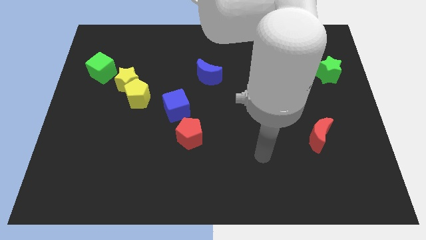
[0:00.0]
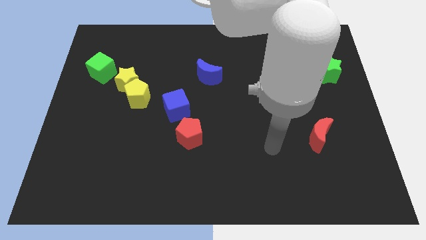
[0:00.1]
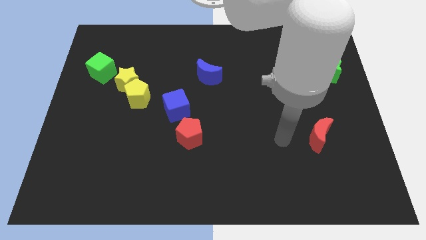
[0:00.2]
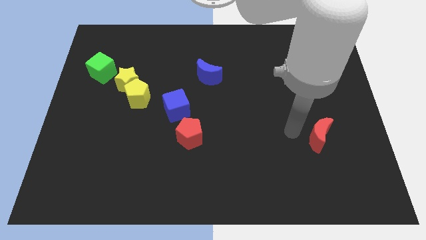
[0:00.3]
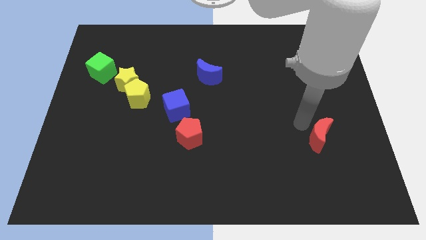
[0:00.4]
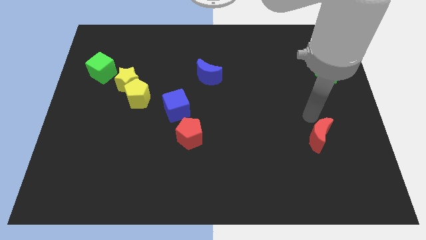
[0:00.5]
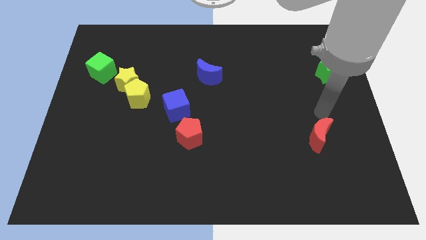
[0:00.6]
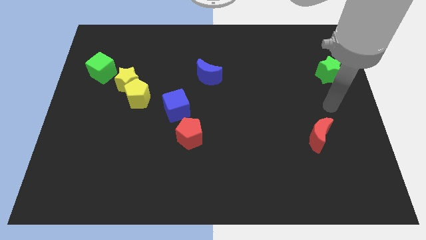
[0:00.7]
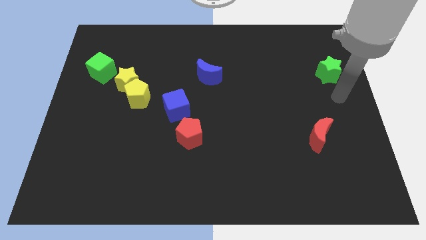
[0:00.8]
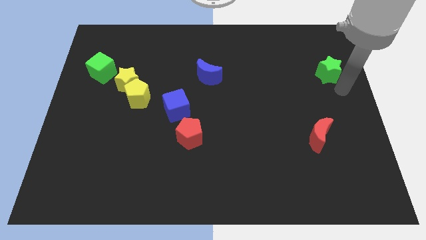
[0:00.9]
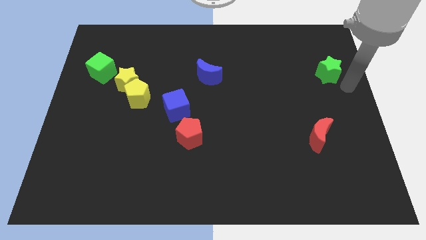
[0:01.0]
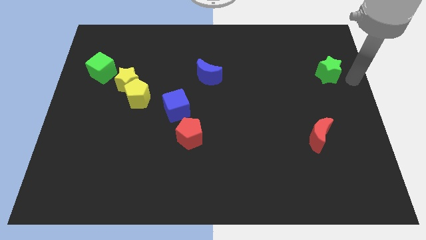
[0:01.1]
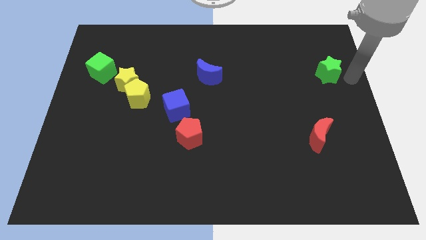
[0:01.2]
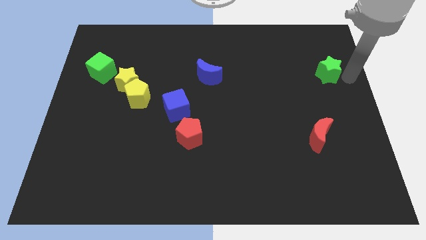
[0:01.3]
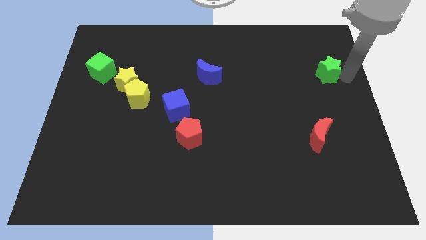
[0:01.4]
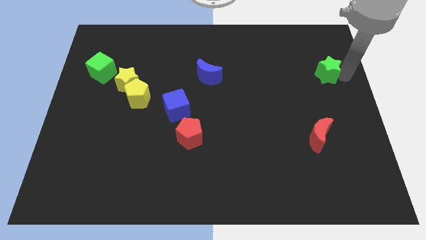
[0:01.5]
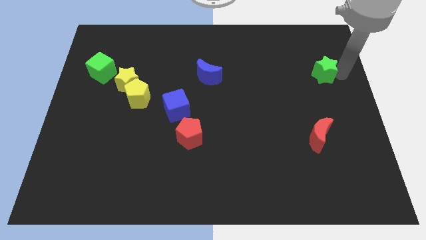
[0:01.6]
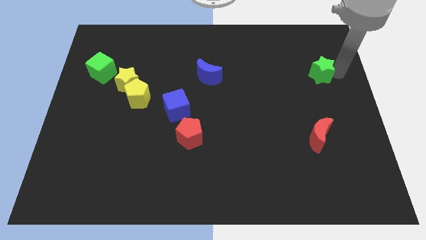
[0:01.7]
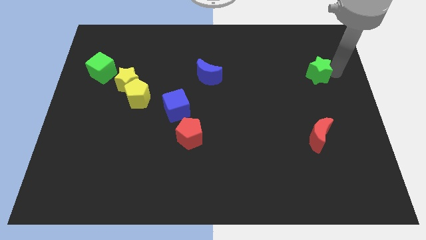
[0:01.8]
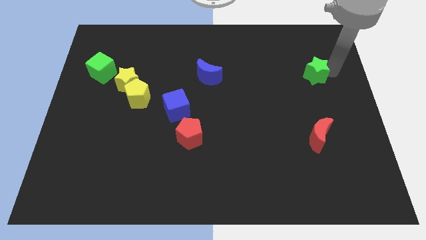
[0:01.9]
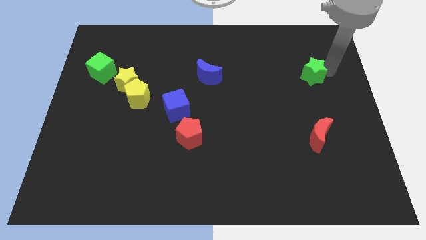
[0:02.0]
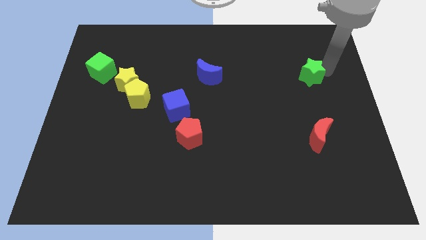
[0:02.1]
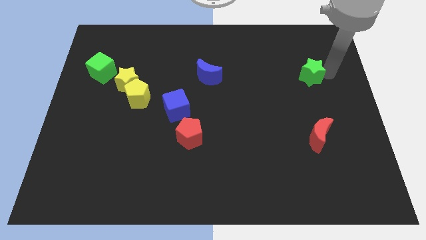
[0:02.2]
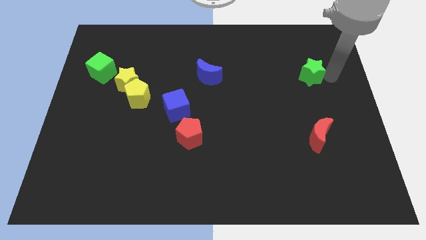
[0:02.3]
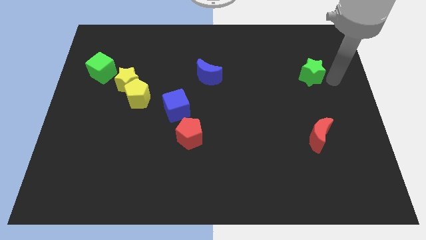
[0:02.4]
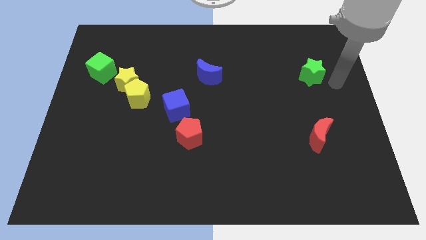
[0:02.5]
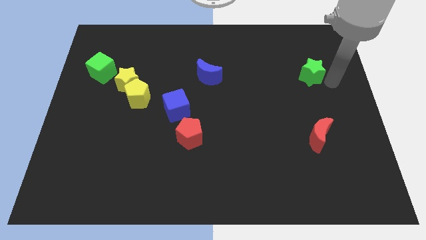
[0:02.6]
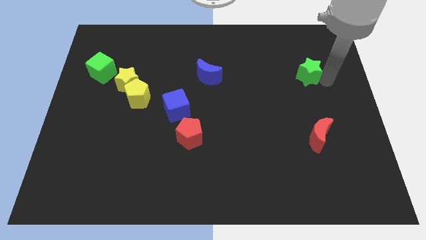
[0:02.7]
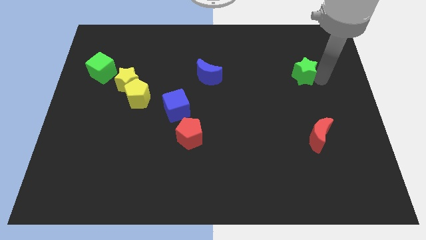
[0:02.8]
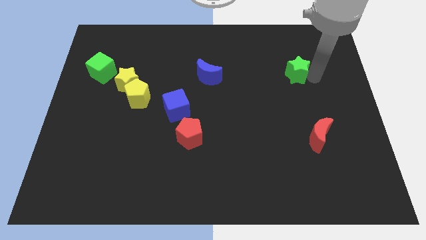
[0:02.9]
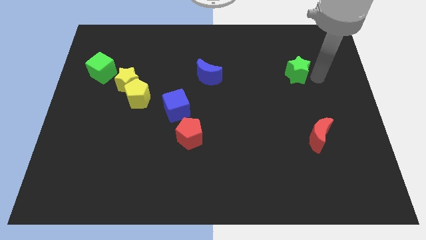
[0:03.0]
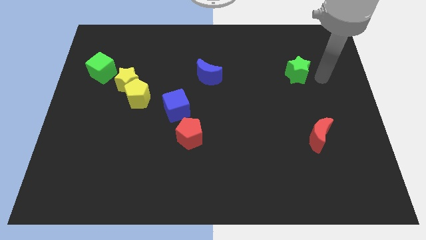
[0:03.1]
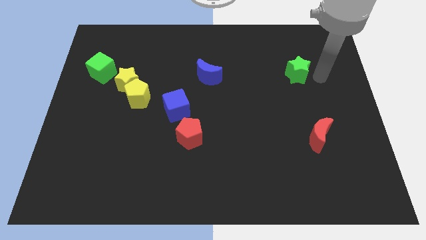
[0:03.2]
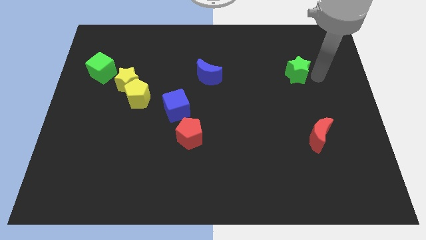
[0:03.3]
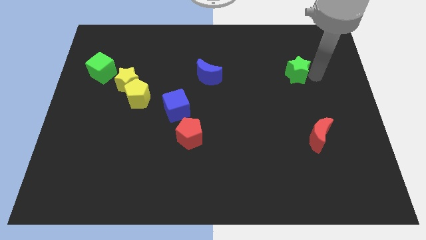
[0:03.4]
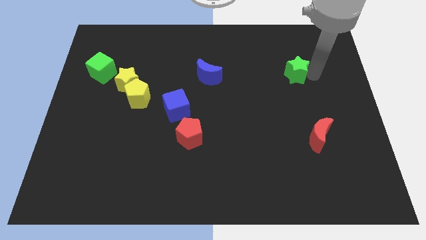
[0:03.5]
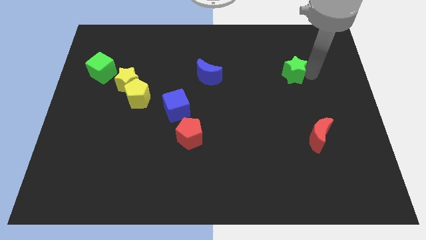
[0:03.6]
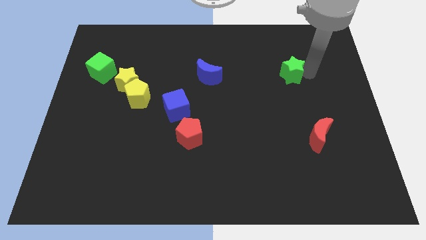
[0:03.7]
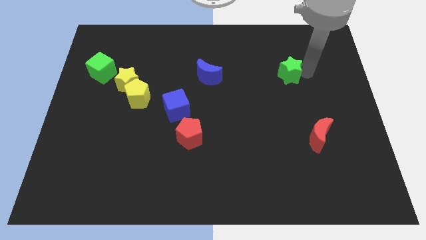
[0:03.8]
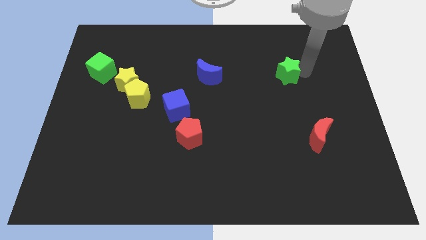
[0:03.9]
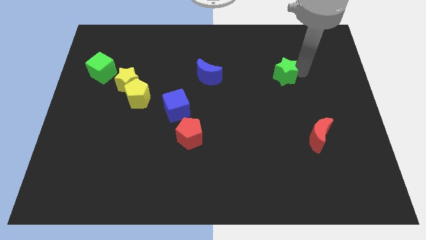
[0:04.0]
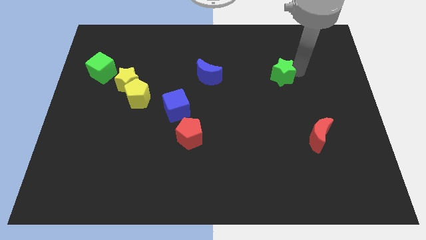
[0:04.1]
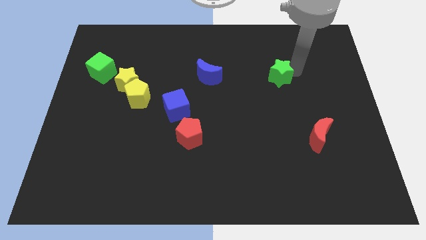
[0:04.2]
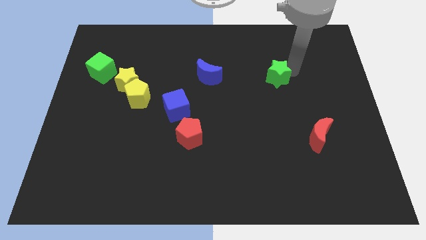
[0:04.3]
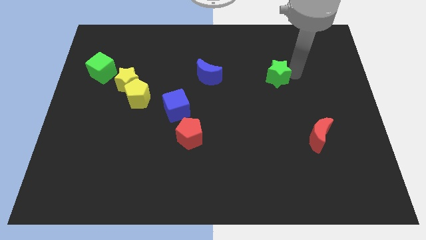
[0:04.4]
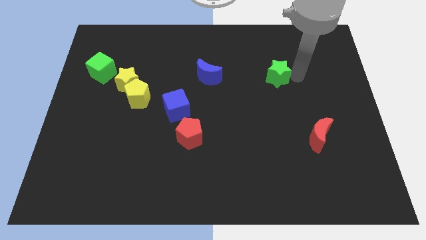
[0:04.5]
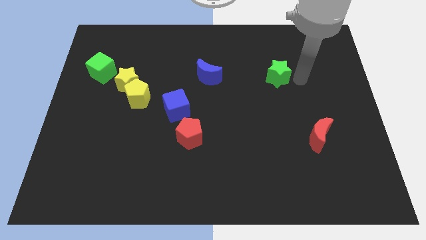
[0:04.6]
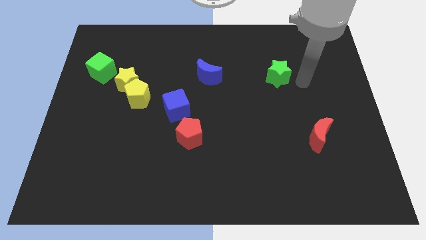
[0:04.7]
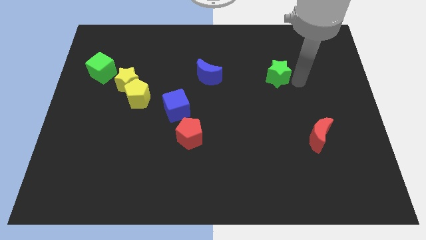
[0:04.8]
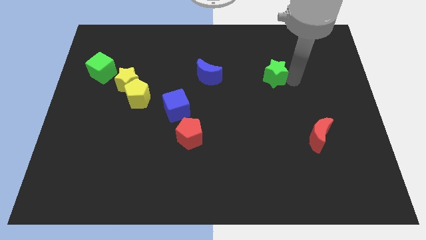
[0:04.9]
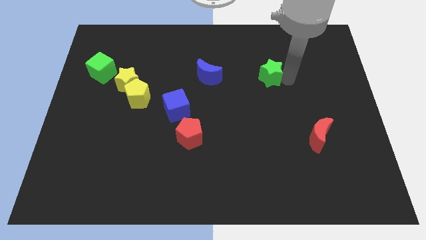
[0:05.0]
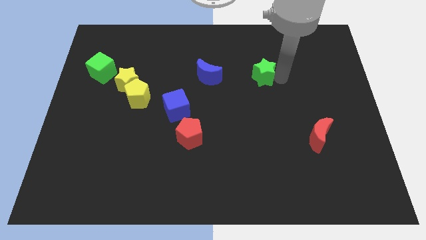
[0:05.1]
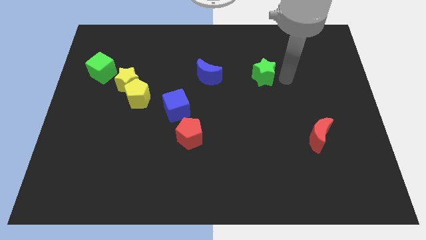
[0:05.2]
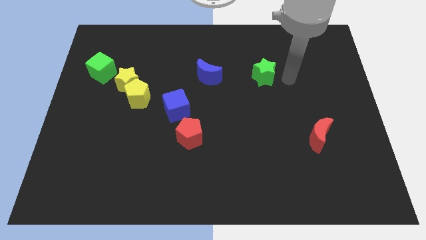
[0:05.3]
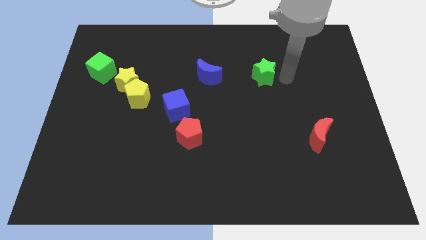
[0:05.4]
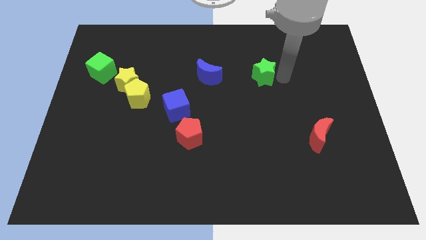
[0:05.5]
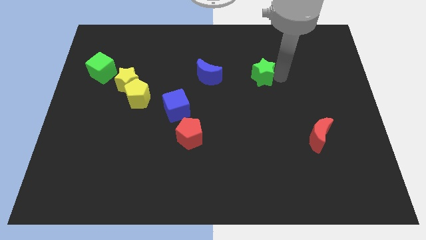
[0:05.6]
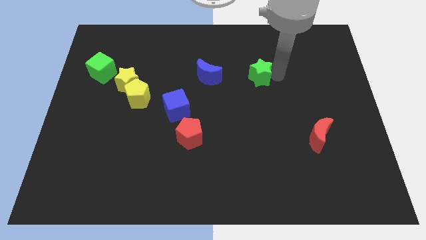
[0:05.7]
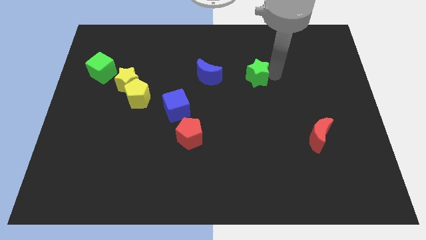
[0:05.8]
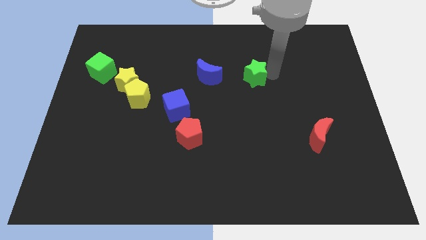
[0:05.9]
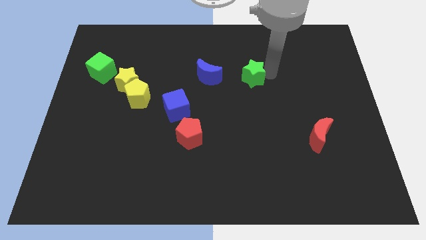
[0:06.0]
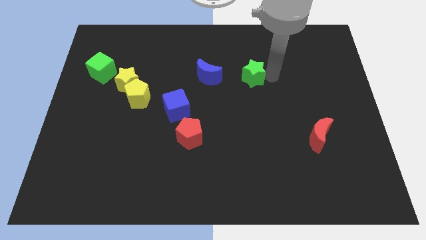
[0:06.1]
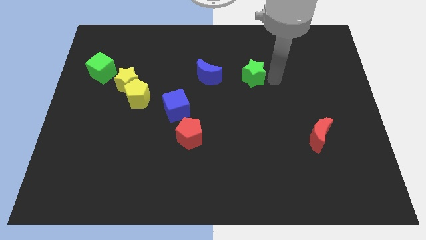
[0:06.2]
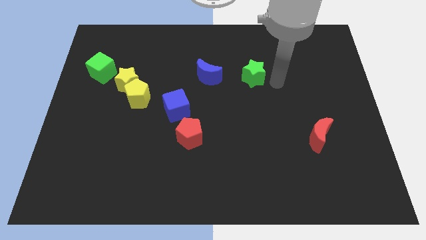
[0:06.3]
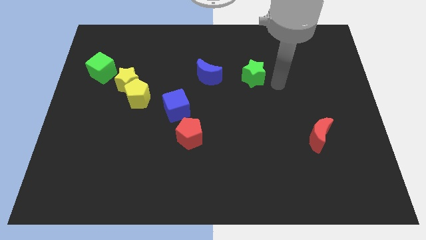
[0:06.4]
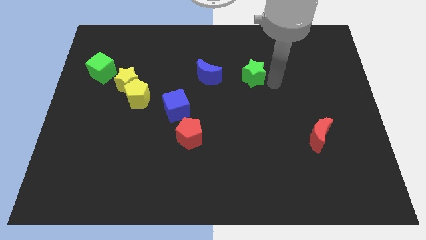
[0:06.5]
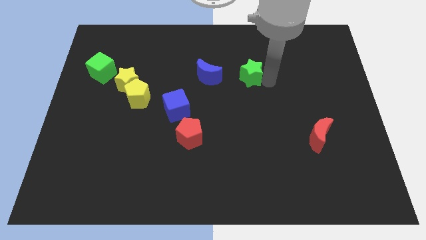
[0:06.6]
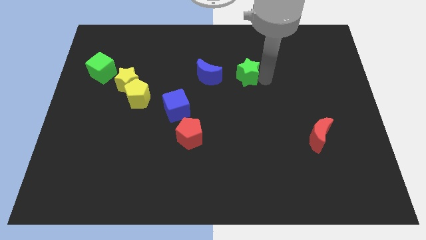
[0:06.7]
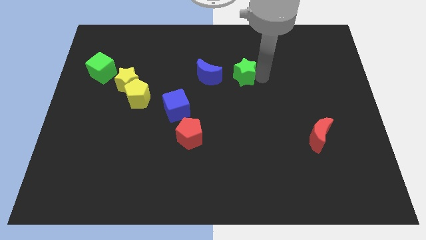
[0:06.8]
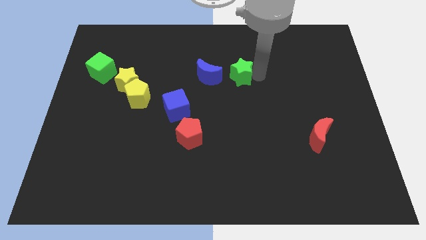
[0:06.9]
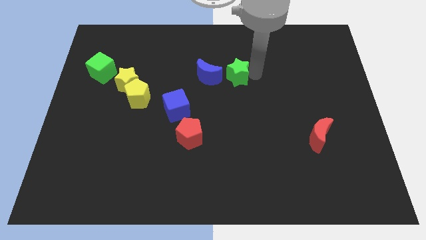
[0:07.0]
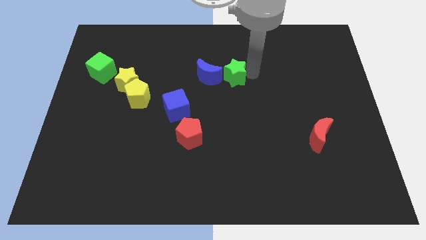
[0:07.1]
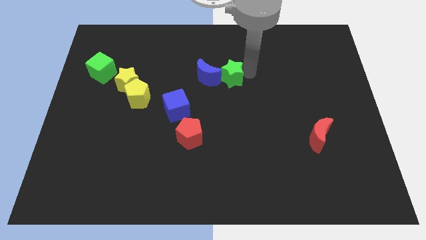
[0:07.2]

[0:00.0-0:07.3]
put the green star to the blue moon
